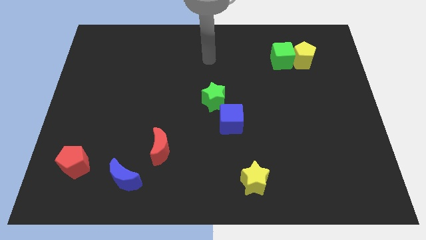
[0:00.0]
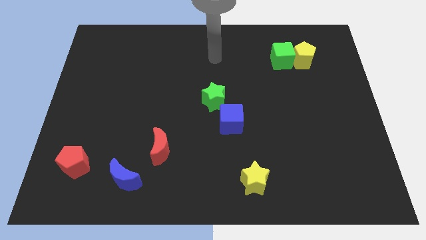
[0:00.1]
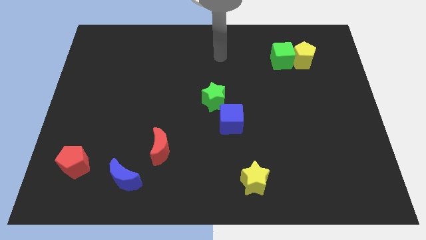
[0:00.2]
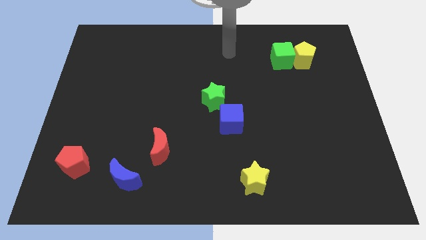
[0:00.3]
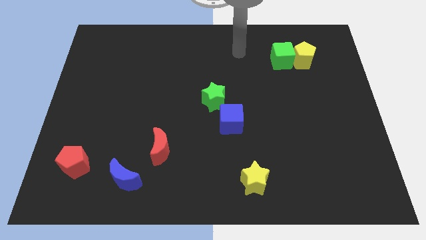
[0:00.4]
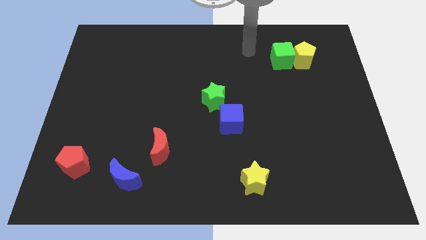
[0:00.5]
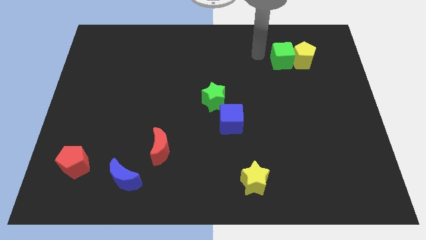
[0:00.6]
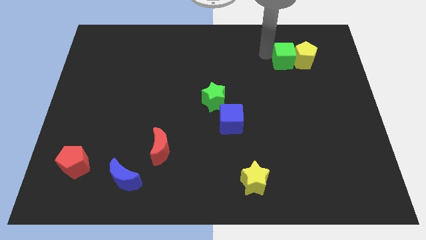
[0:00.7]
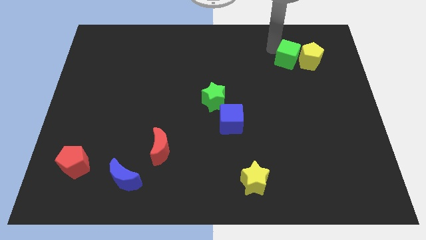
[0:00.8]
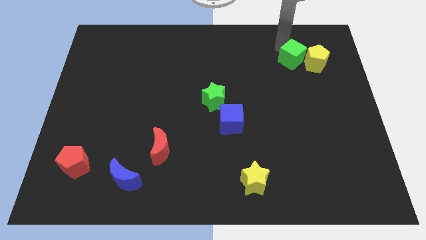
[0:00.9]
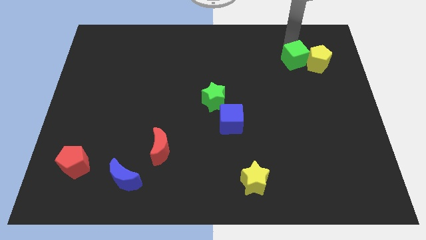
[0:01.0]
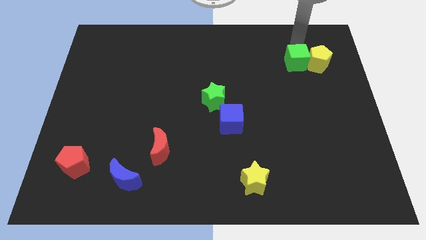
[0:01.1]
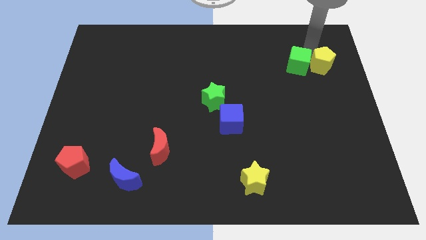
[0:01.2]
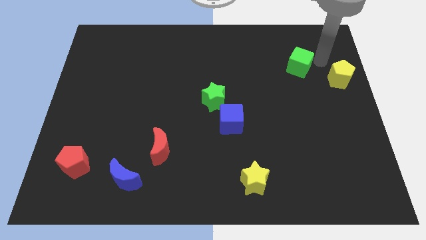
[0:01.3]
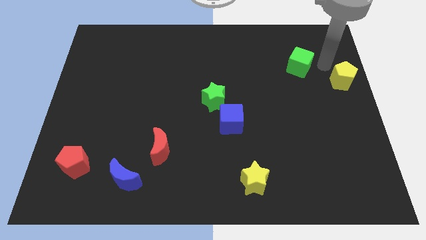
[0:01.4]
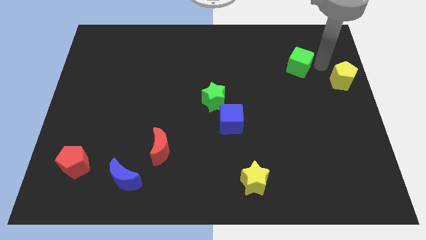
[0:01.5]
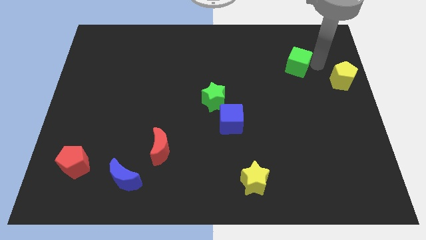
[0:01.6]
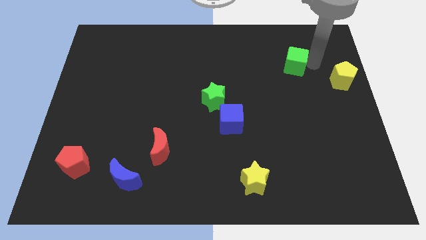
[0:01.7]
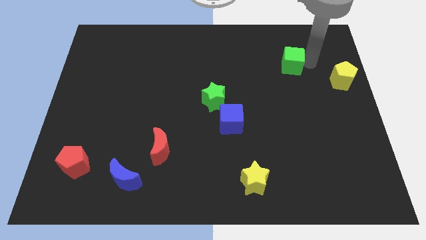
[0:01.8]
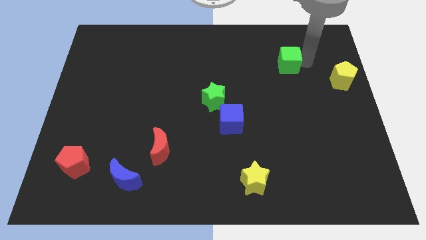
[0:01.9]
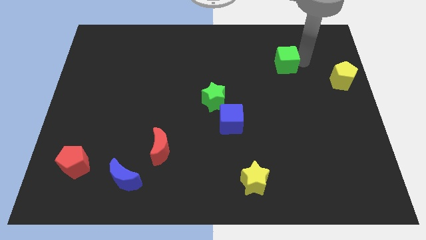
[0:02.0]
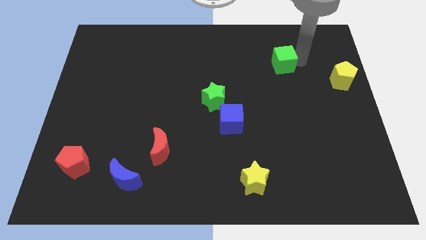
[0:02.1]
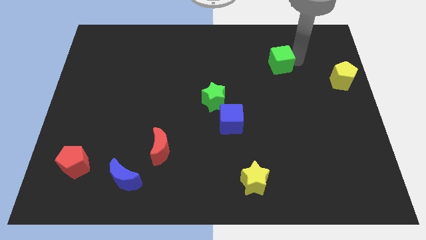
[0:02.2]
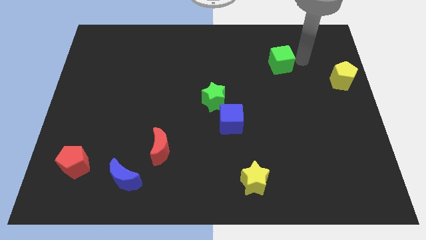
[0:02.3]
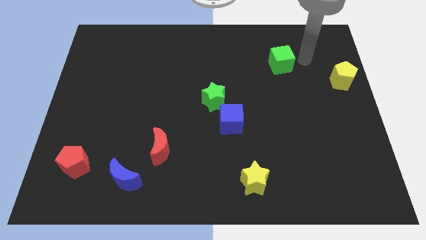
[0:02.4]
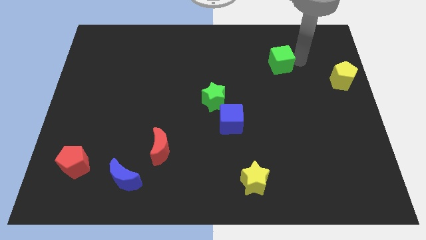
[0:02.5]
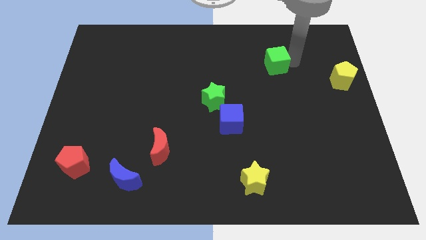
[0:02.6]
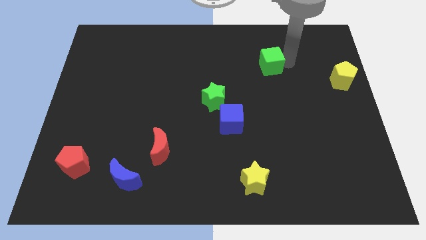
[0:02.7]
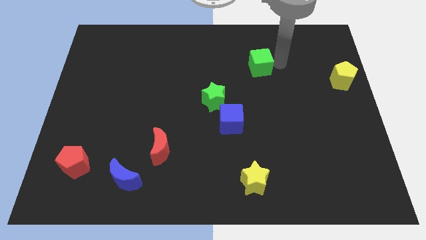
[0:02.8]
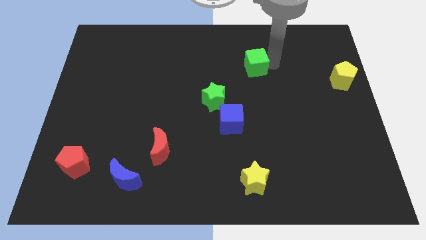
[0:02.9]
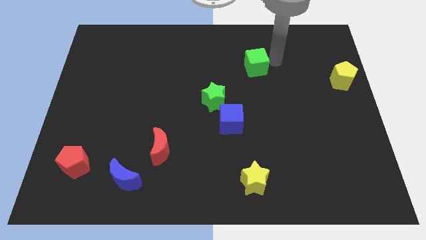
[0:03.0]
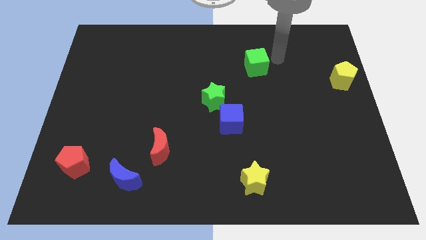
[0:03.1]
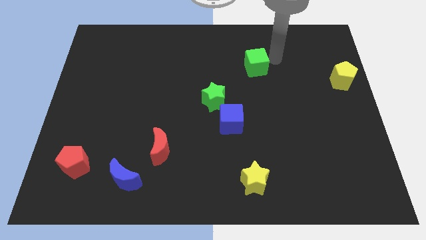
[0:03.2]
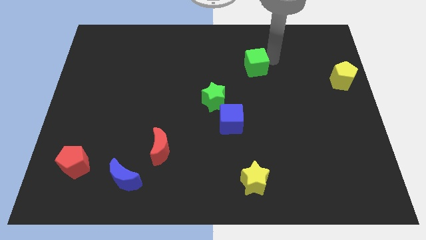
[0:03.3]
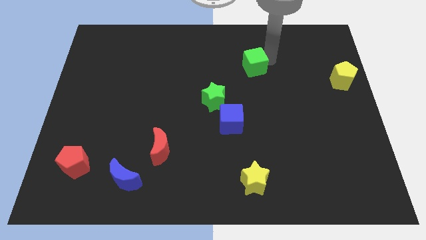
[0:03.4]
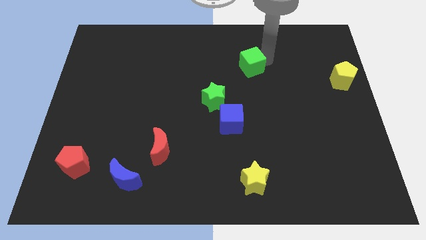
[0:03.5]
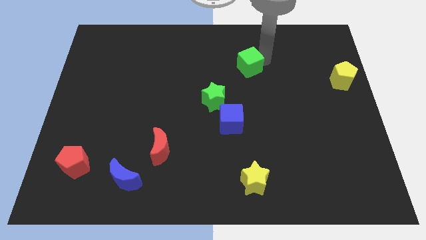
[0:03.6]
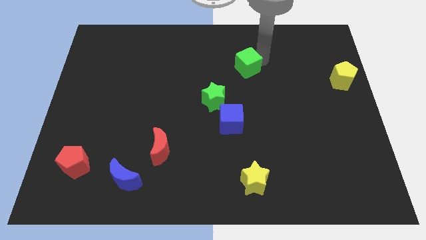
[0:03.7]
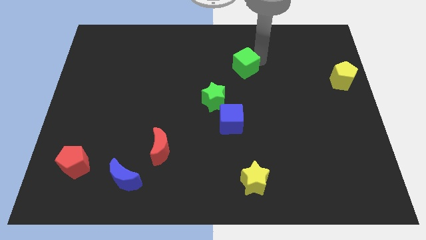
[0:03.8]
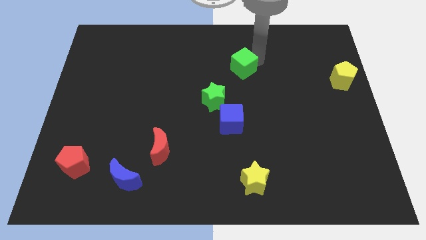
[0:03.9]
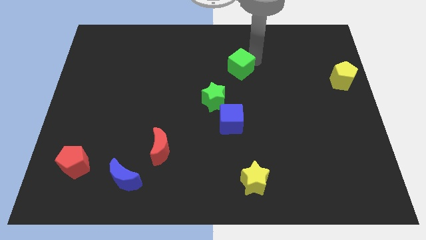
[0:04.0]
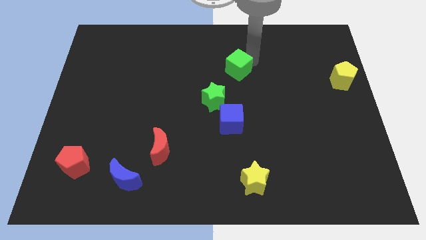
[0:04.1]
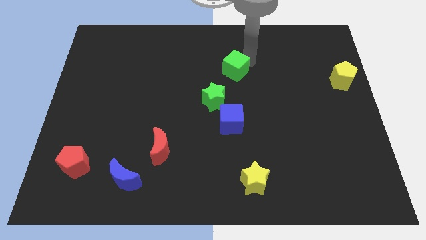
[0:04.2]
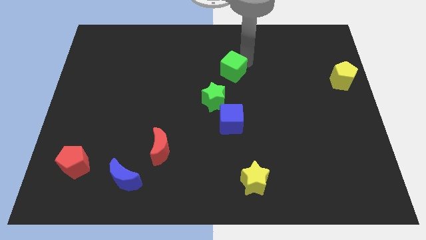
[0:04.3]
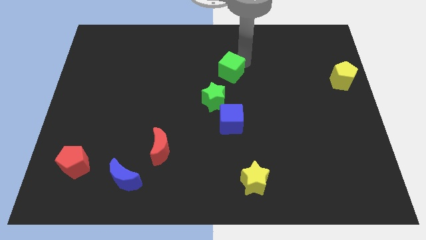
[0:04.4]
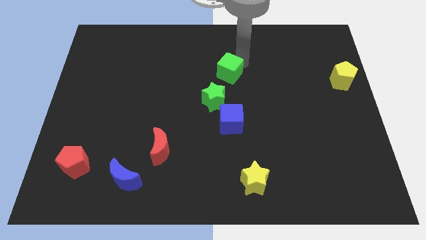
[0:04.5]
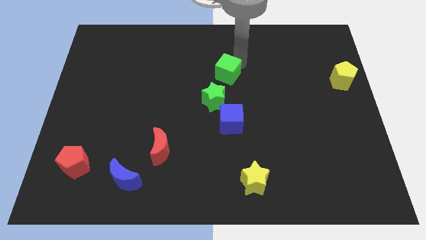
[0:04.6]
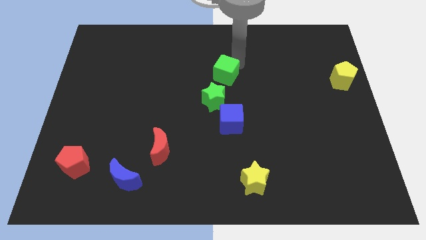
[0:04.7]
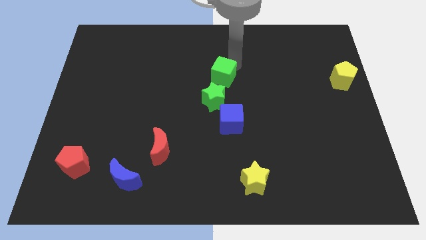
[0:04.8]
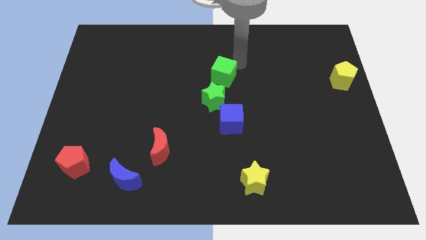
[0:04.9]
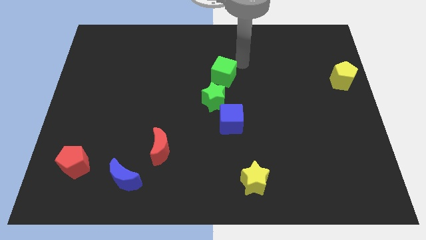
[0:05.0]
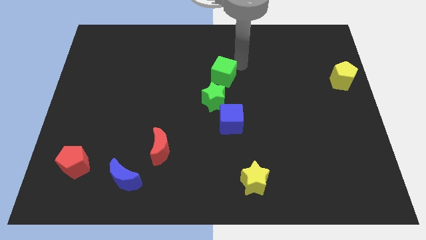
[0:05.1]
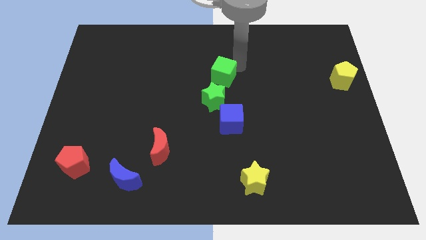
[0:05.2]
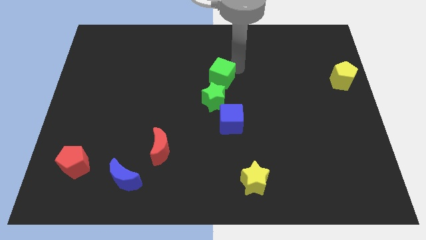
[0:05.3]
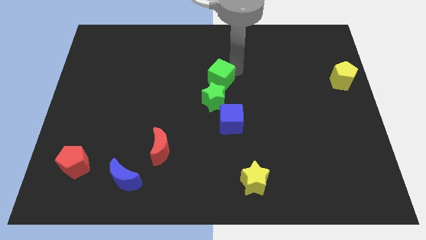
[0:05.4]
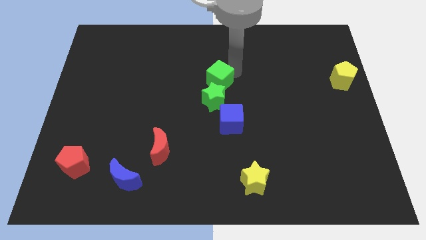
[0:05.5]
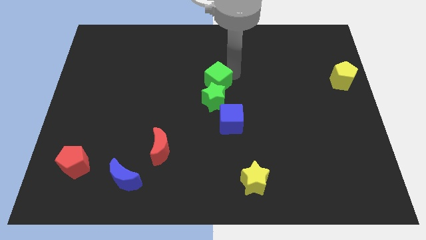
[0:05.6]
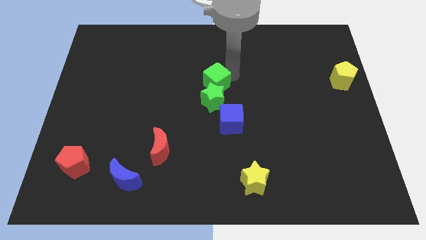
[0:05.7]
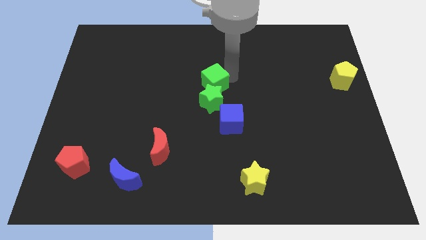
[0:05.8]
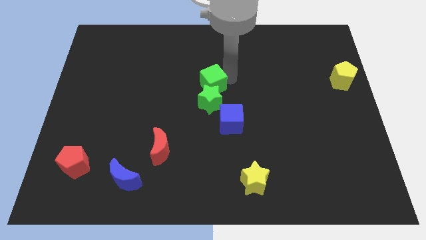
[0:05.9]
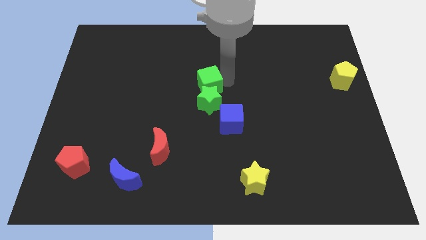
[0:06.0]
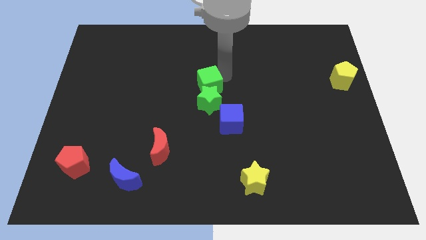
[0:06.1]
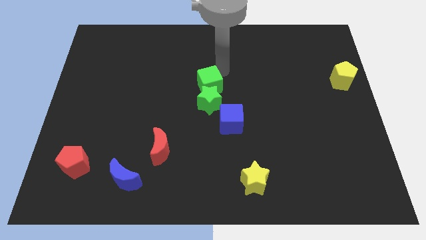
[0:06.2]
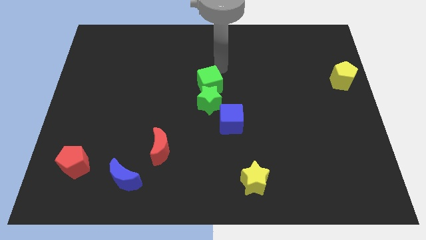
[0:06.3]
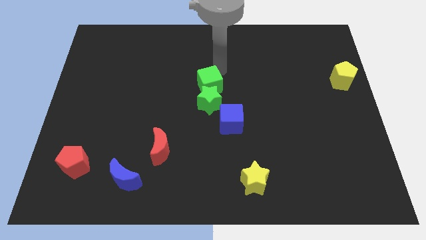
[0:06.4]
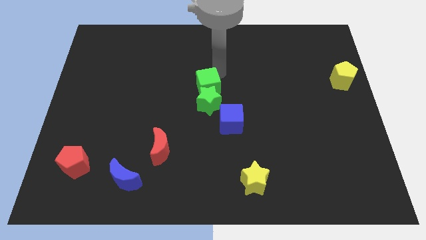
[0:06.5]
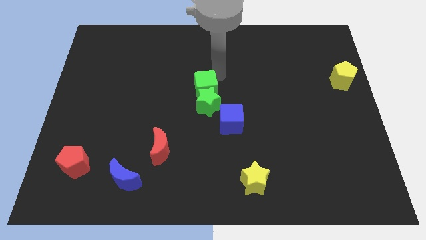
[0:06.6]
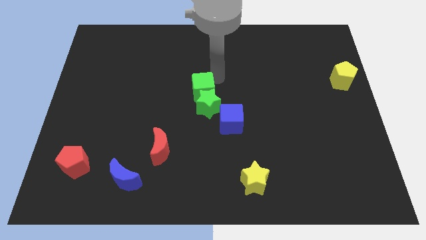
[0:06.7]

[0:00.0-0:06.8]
slide the green cube downwards and then left

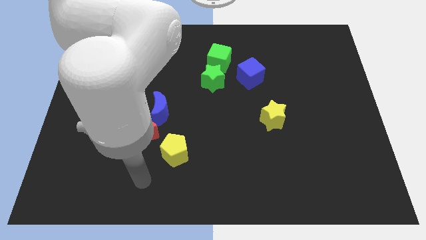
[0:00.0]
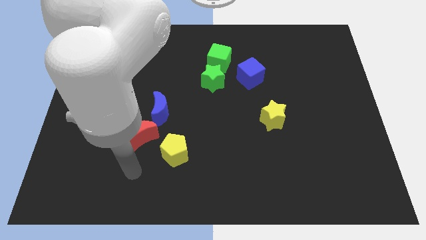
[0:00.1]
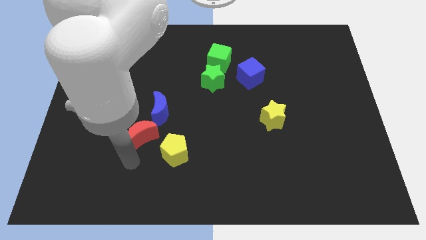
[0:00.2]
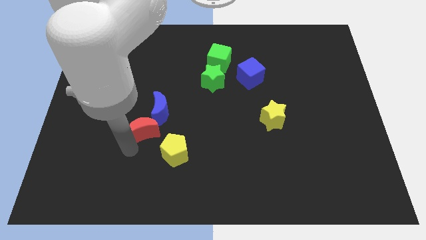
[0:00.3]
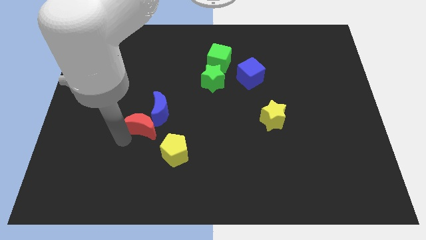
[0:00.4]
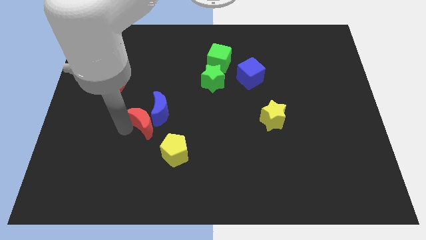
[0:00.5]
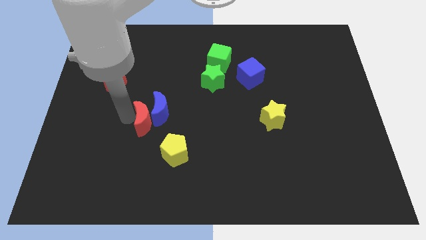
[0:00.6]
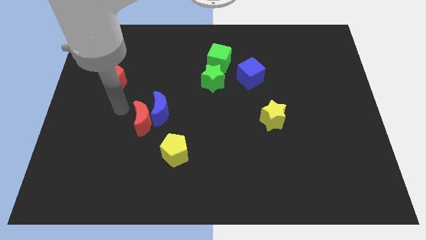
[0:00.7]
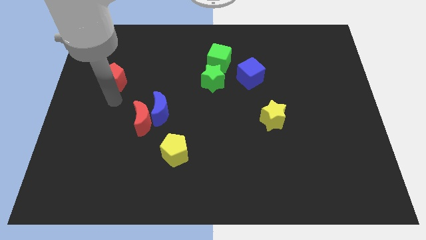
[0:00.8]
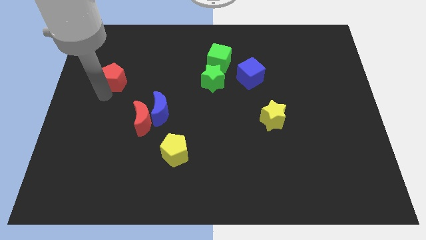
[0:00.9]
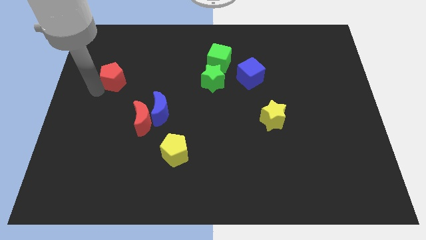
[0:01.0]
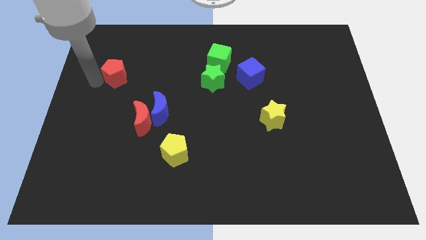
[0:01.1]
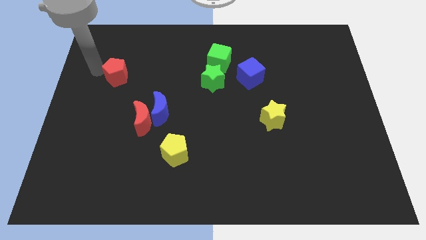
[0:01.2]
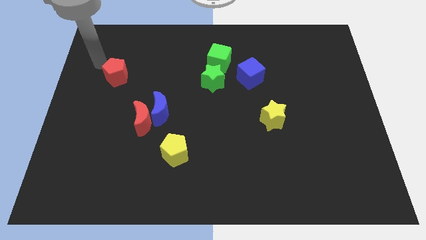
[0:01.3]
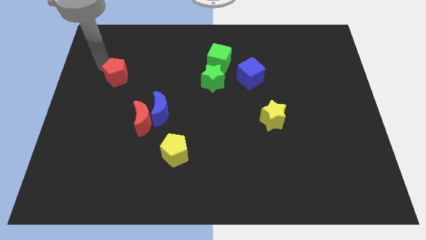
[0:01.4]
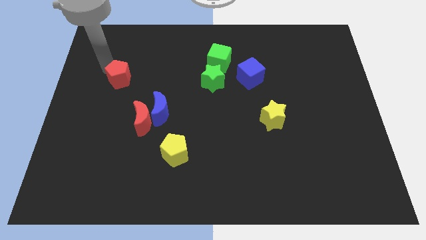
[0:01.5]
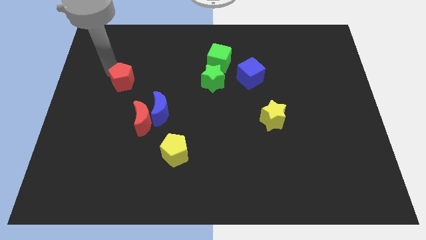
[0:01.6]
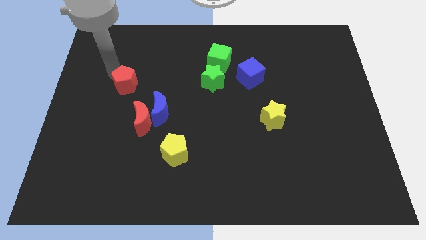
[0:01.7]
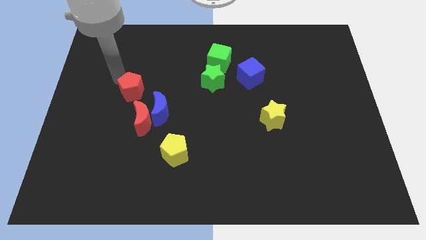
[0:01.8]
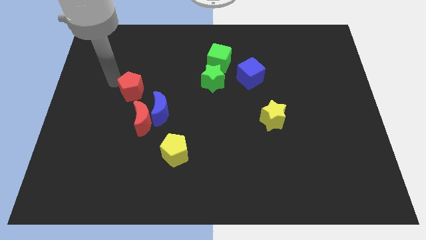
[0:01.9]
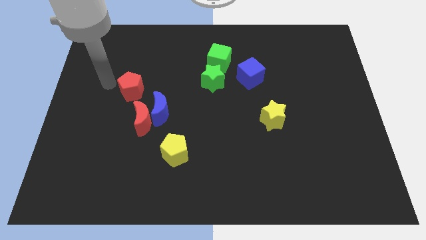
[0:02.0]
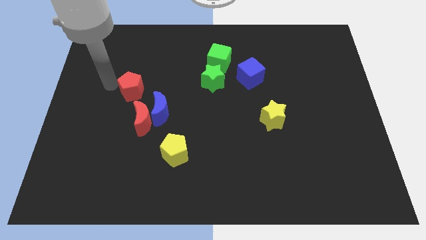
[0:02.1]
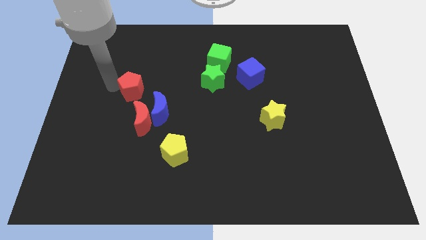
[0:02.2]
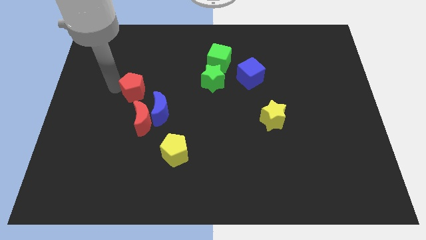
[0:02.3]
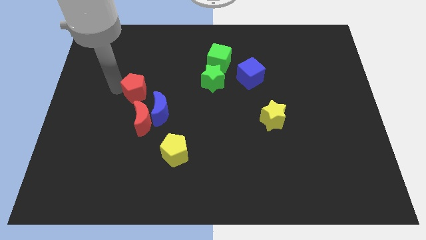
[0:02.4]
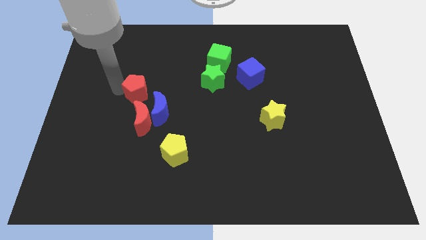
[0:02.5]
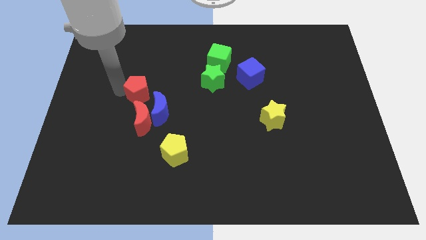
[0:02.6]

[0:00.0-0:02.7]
push the red pentagon down and then to the right a bit
